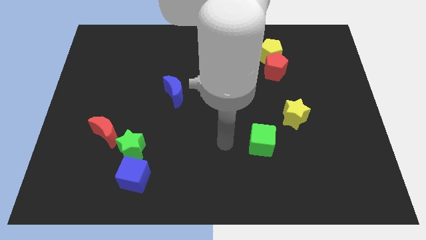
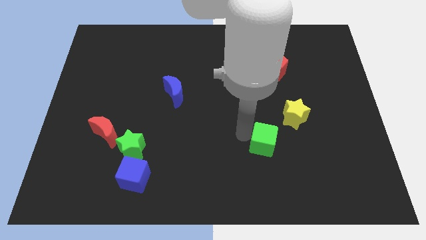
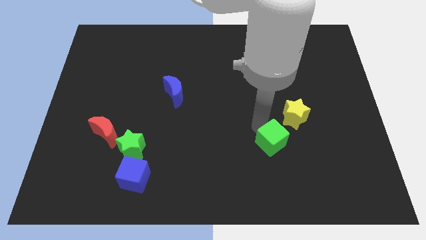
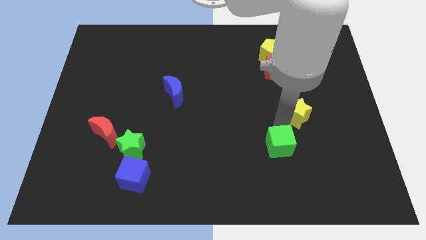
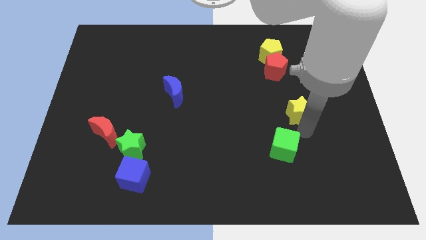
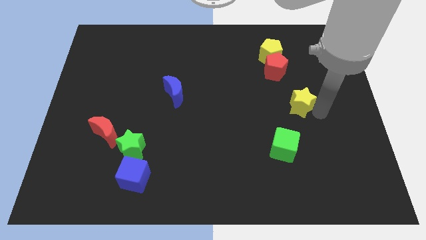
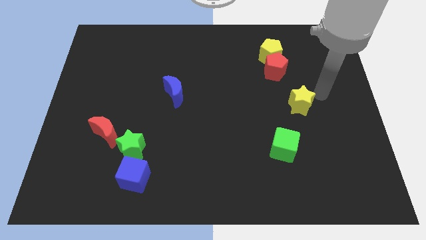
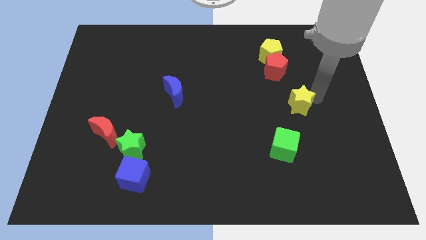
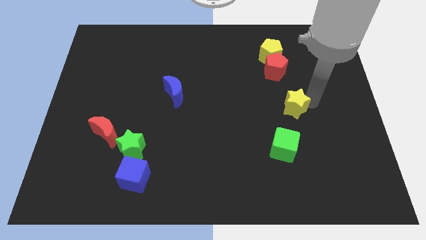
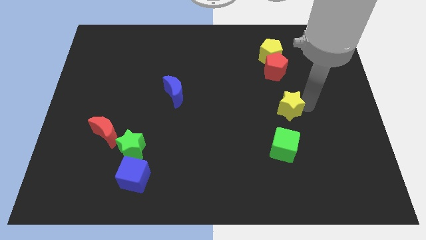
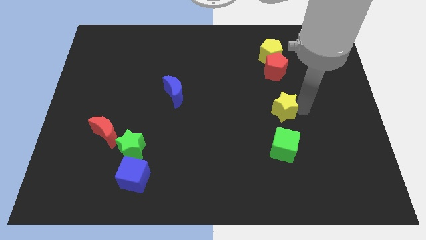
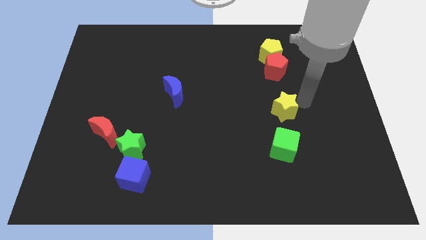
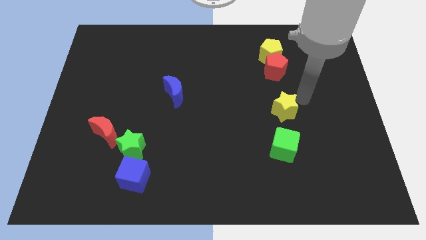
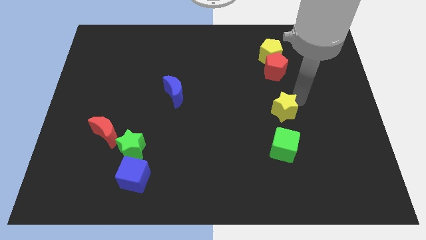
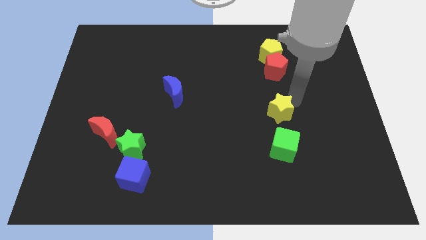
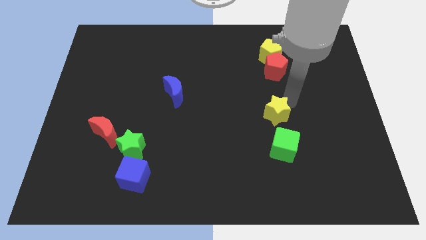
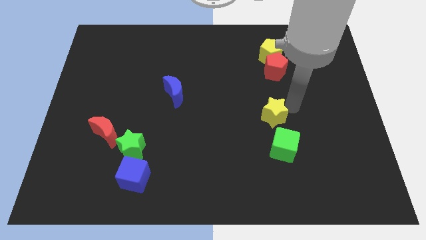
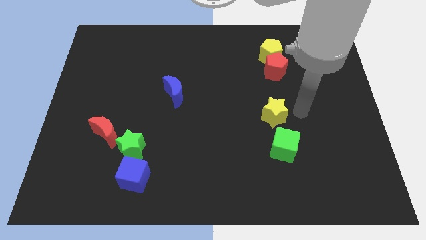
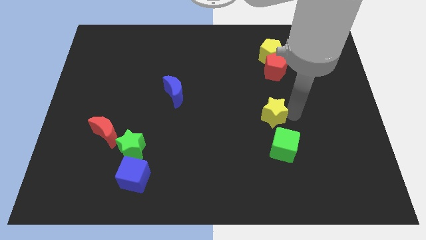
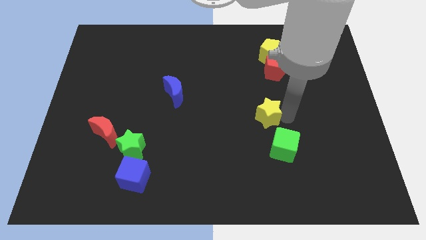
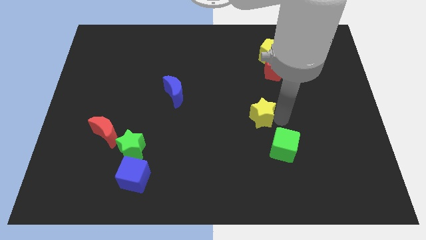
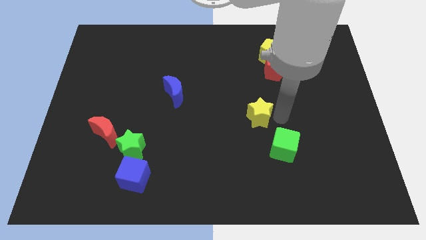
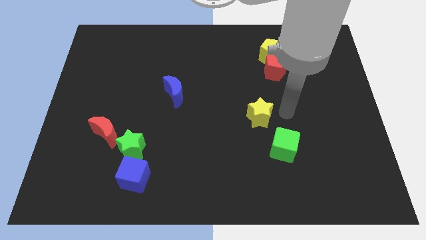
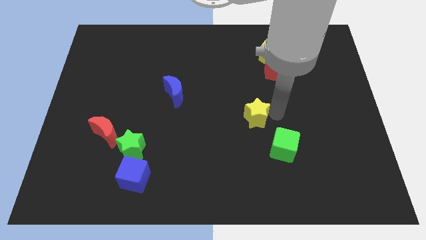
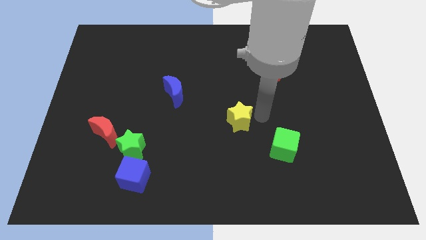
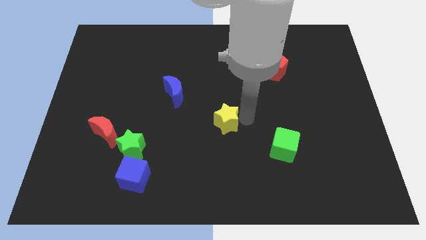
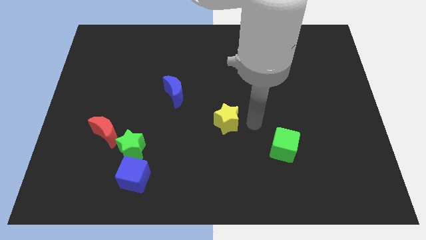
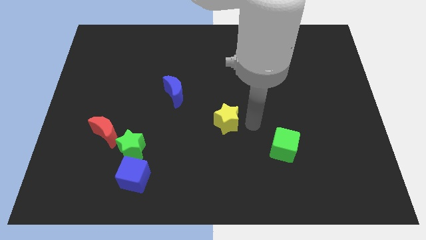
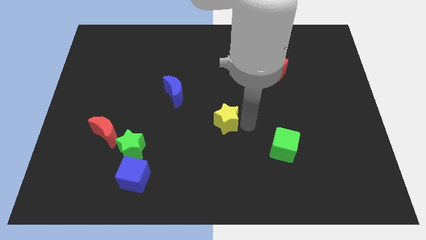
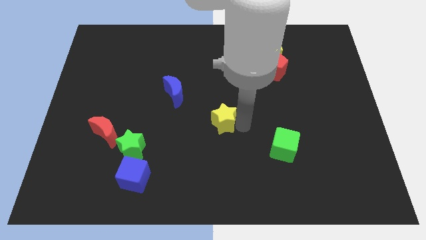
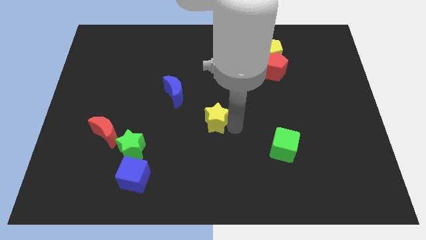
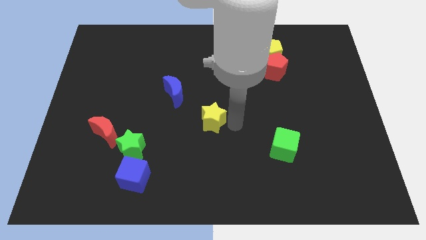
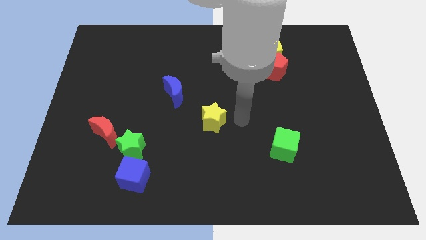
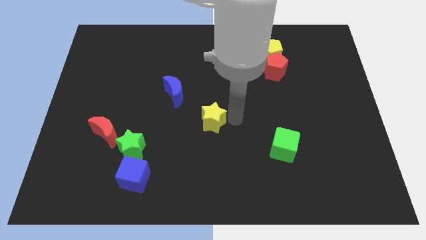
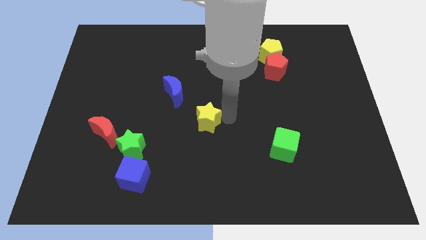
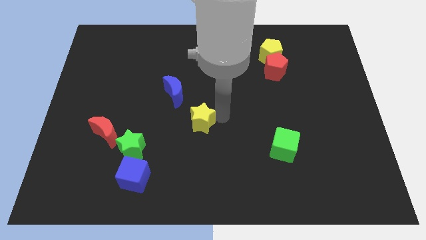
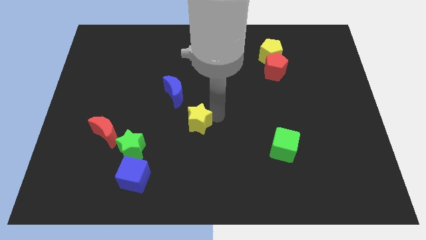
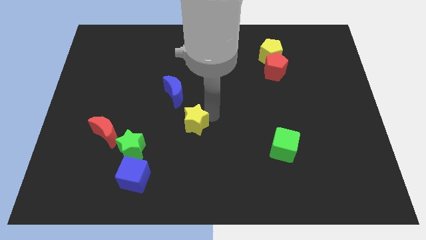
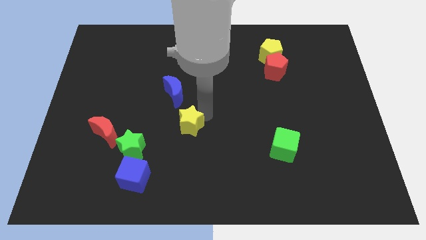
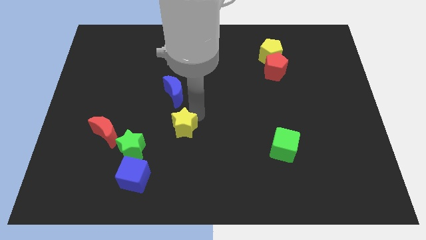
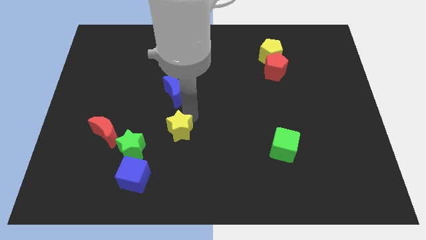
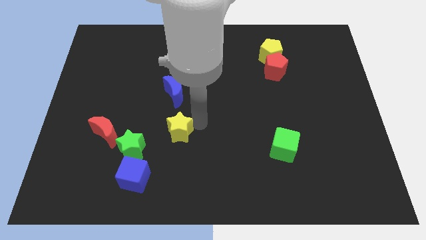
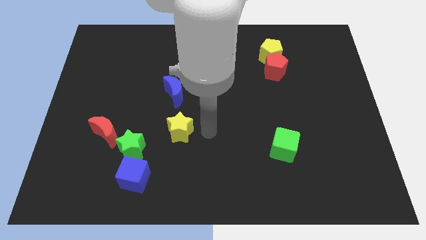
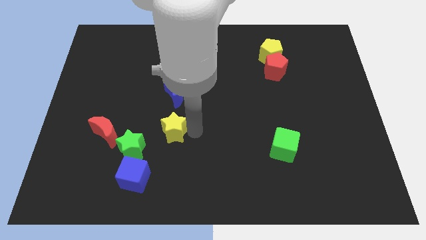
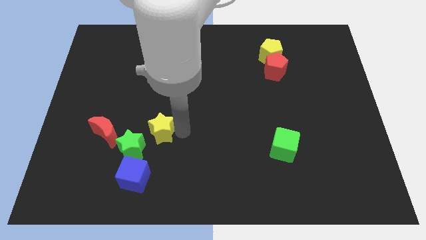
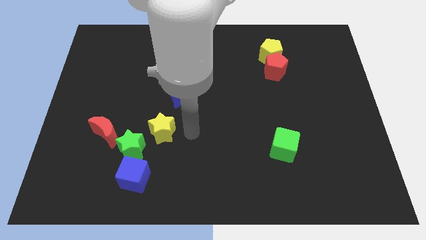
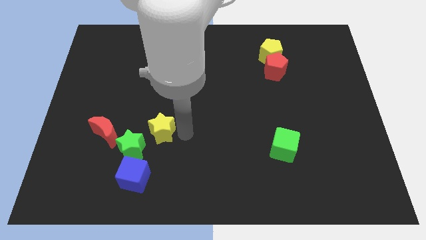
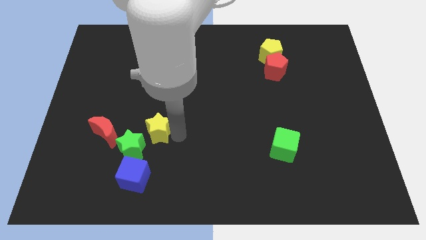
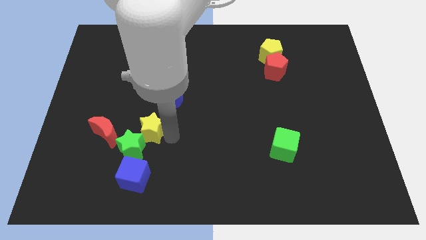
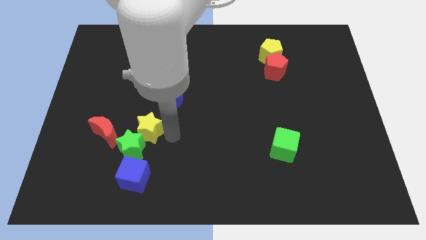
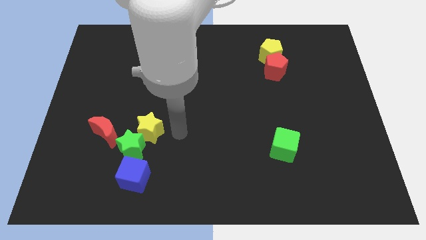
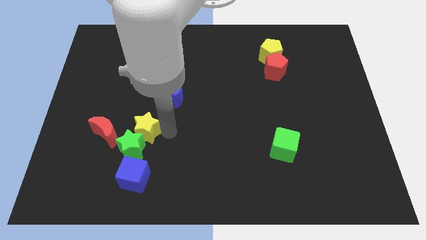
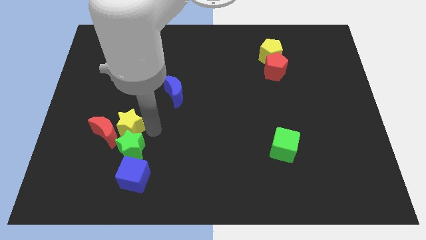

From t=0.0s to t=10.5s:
put the yellow star towards the red moon

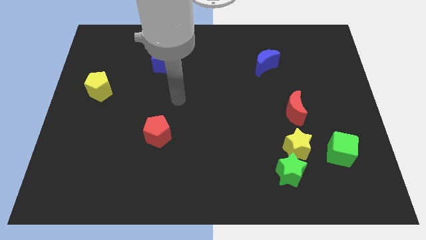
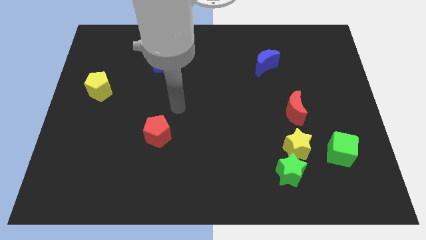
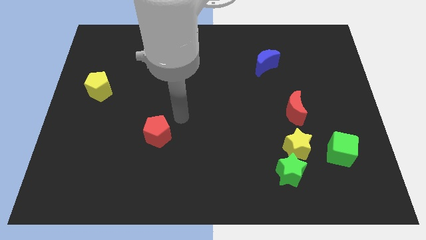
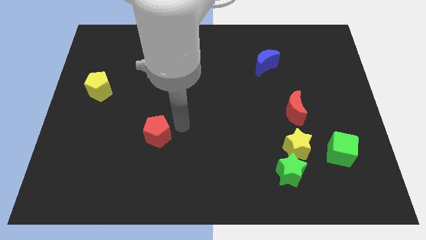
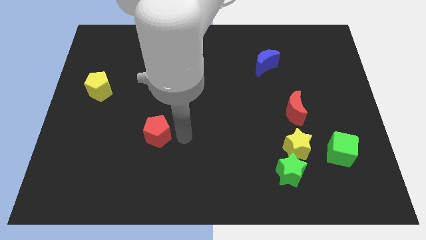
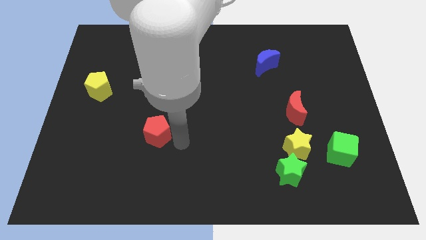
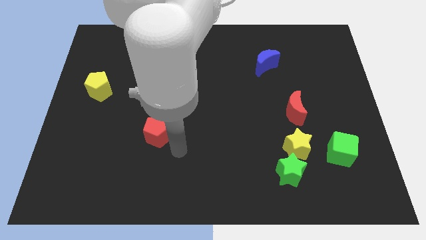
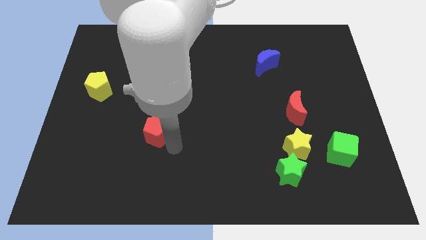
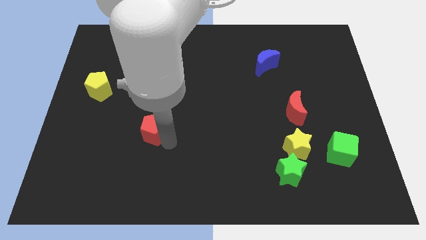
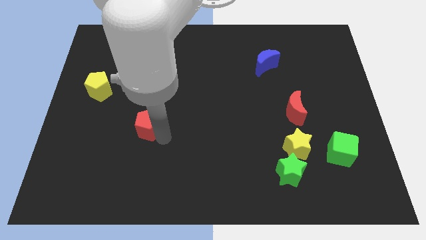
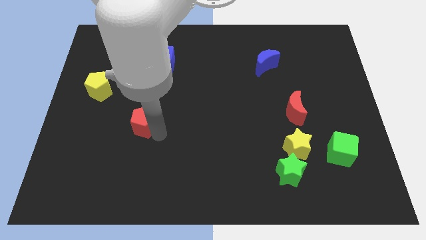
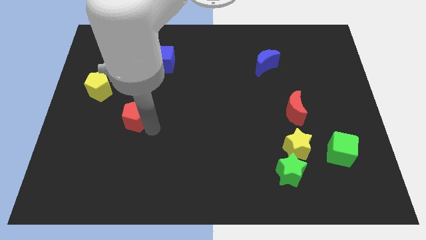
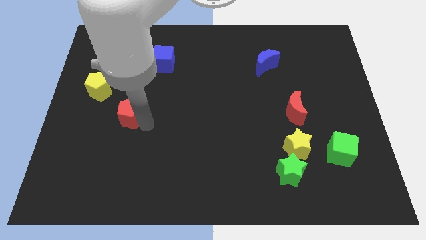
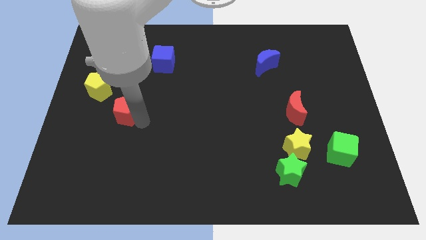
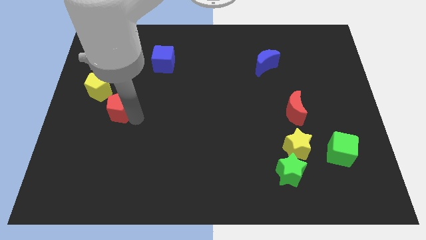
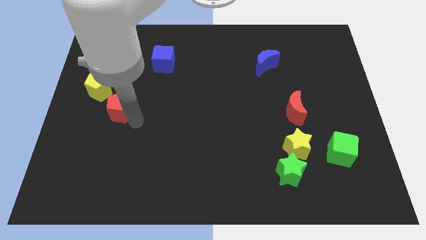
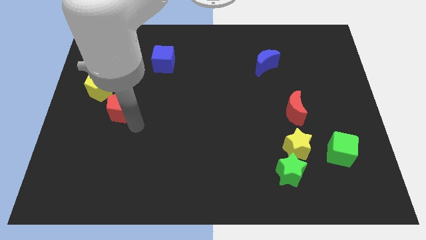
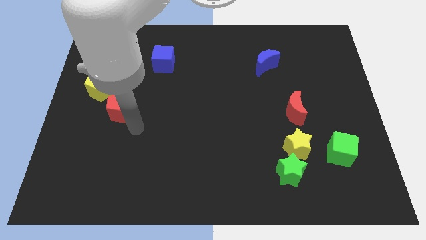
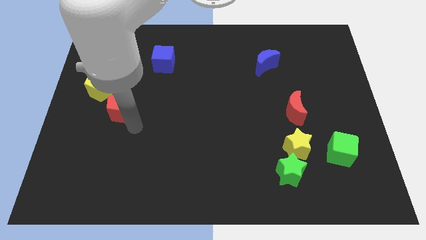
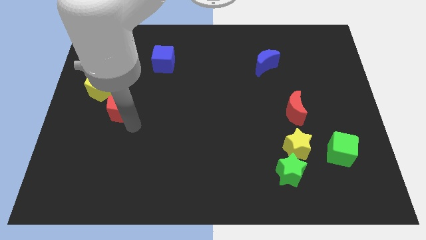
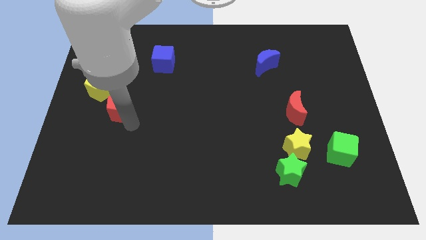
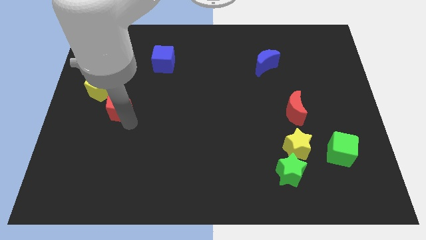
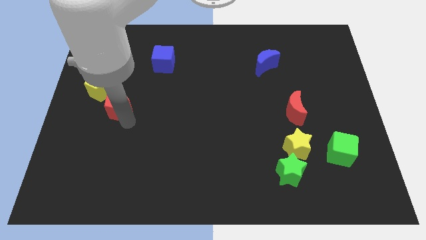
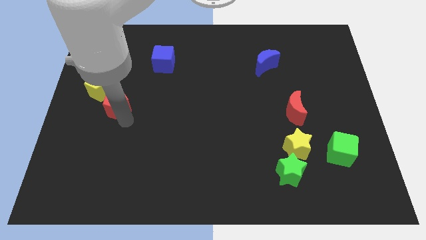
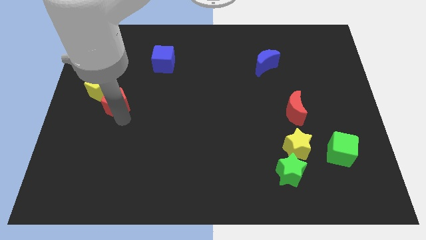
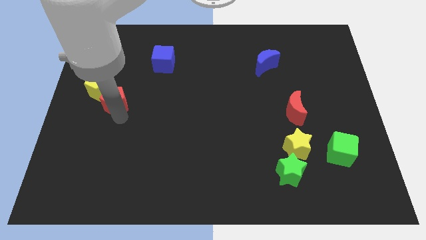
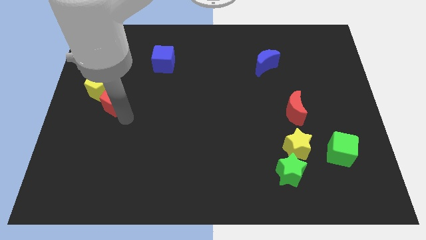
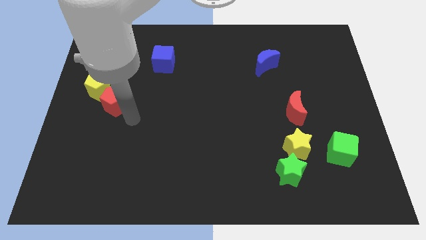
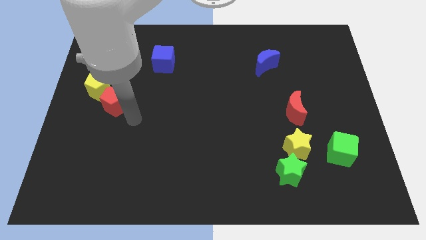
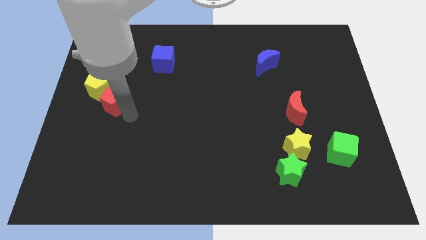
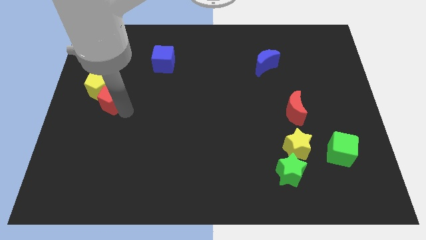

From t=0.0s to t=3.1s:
move the red pentagon close to the yellow pentagon
